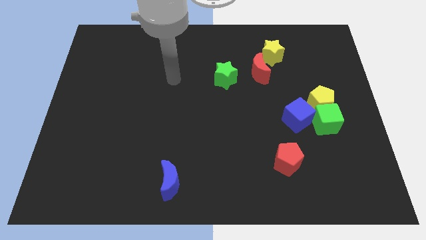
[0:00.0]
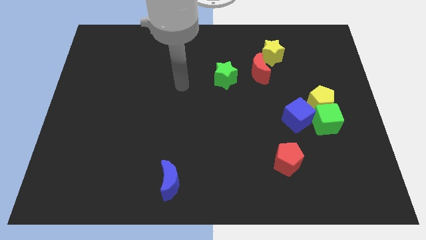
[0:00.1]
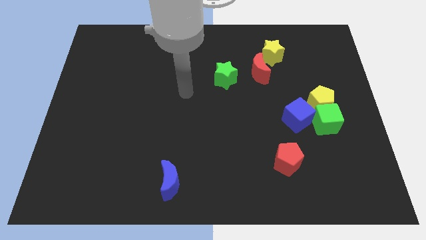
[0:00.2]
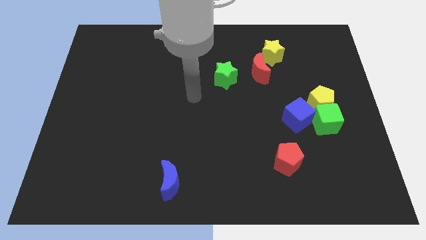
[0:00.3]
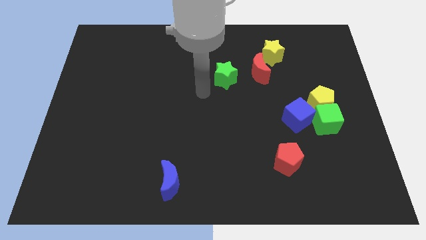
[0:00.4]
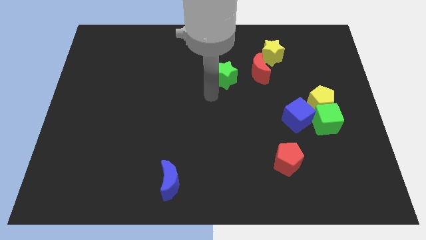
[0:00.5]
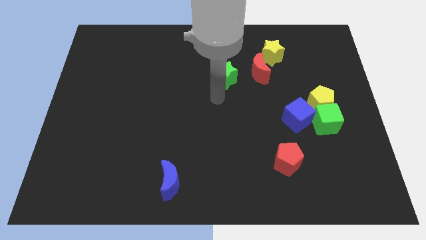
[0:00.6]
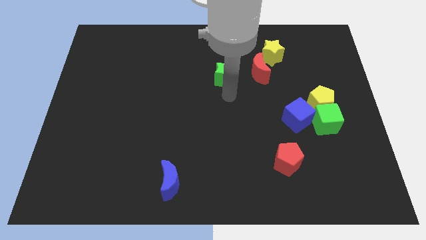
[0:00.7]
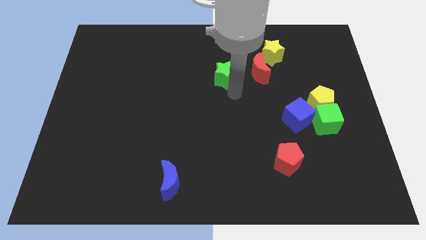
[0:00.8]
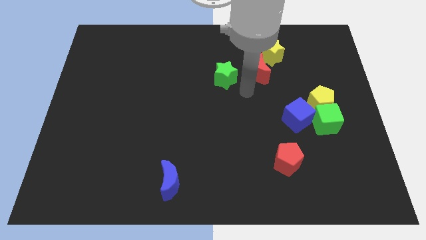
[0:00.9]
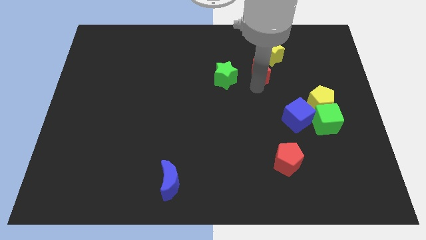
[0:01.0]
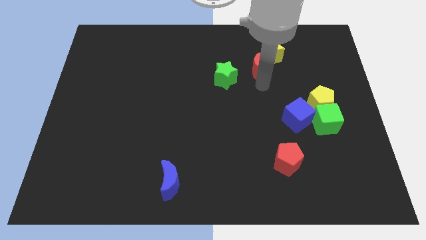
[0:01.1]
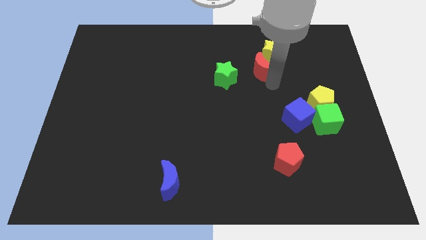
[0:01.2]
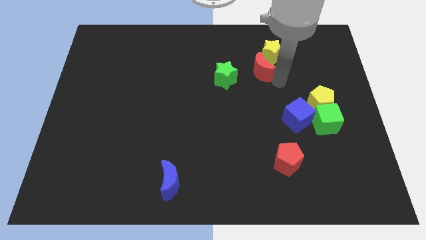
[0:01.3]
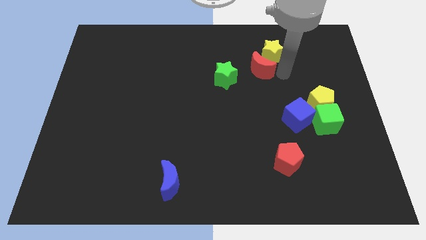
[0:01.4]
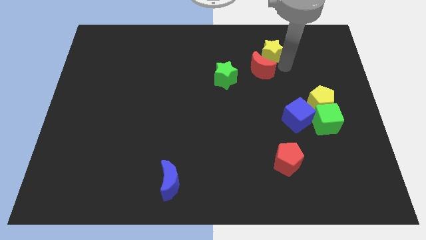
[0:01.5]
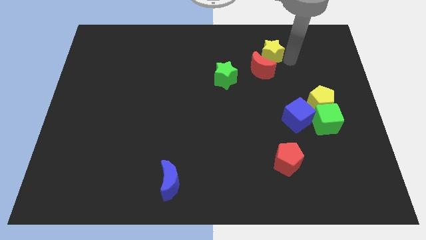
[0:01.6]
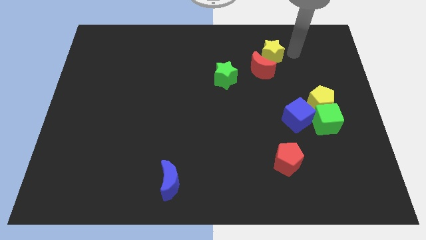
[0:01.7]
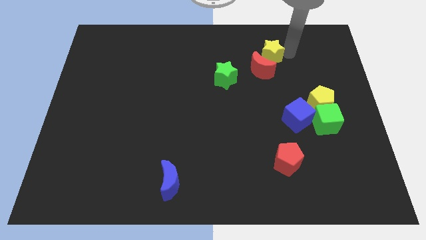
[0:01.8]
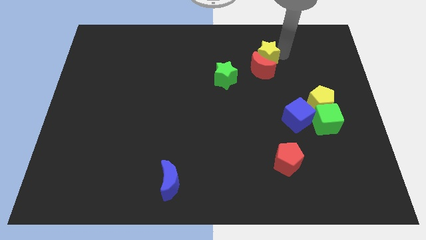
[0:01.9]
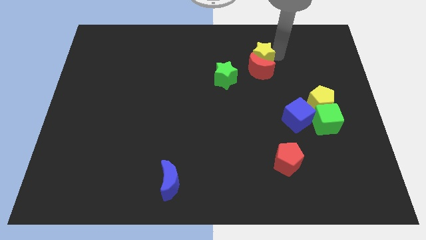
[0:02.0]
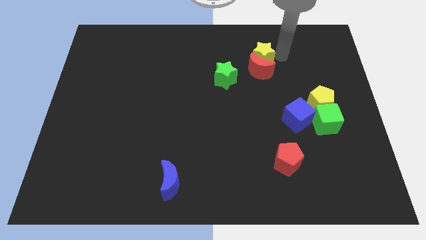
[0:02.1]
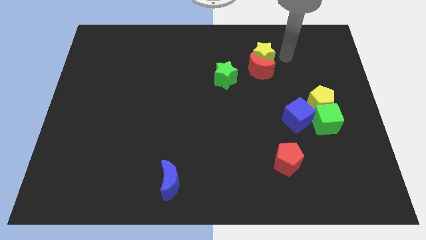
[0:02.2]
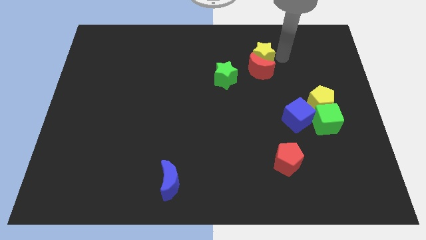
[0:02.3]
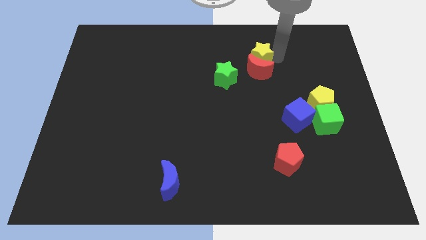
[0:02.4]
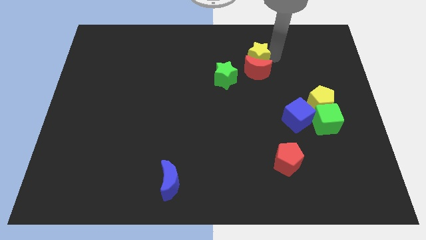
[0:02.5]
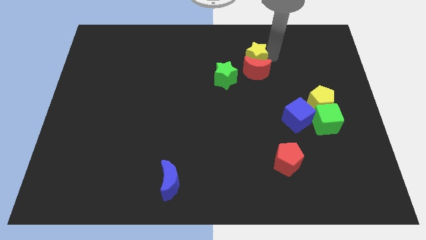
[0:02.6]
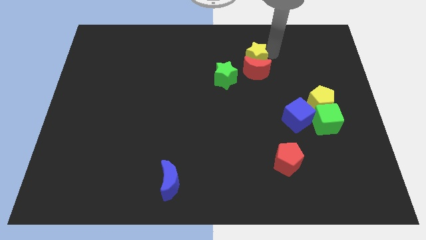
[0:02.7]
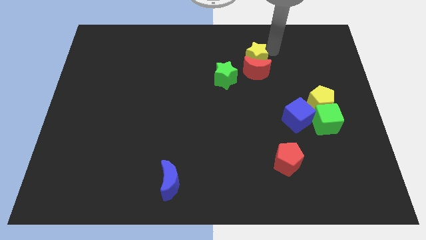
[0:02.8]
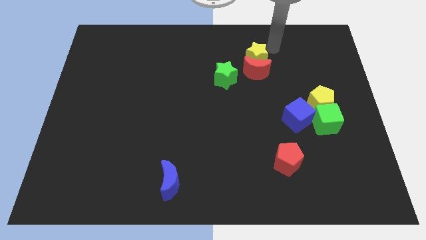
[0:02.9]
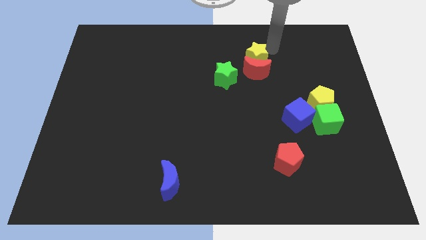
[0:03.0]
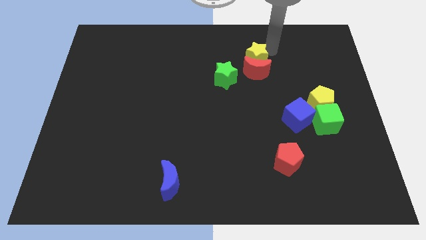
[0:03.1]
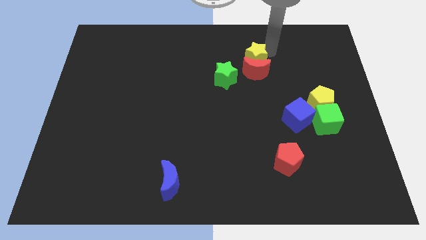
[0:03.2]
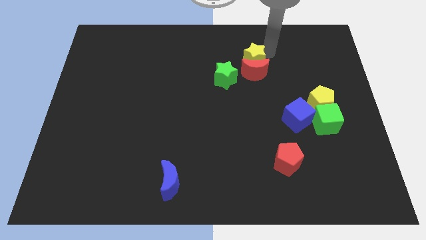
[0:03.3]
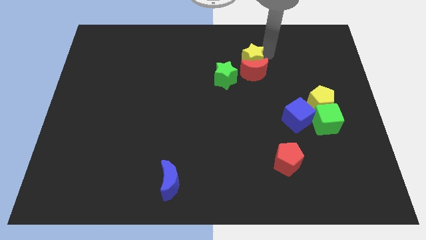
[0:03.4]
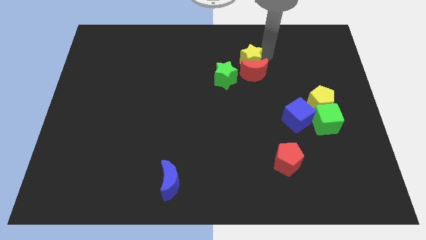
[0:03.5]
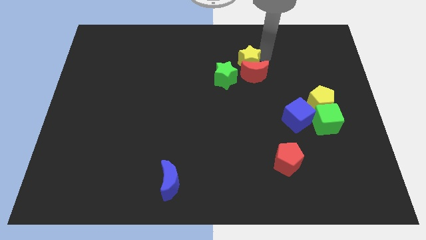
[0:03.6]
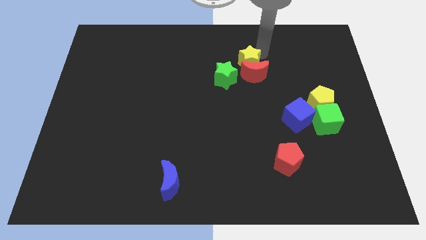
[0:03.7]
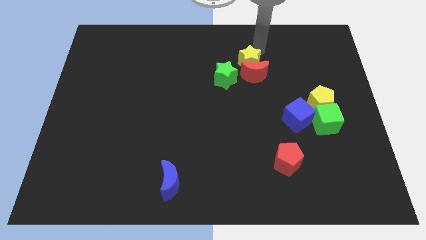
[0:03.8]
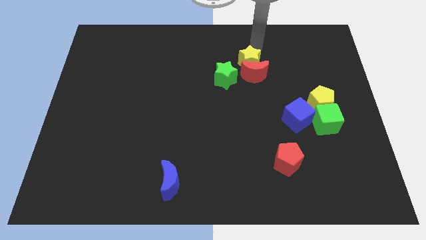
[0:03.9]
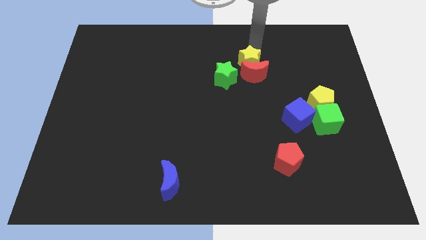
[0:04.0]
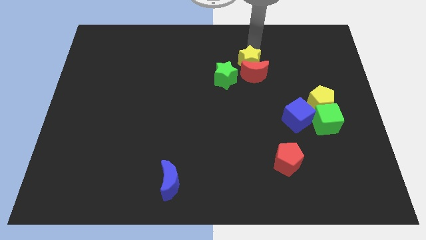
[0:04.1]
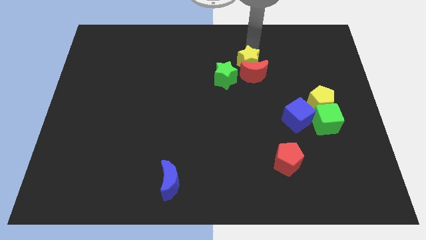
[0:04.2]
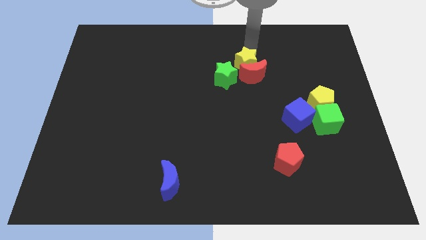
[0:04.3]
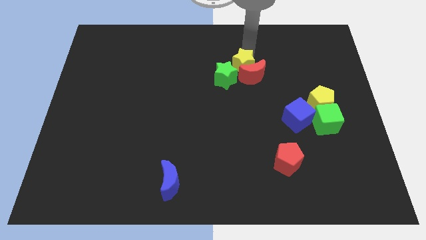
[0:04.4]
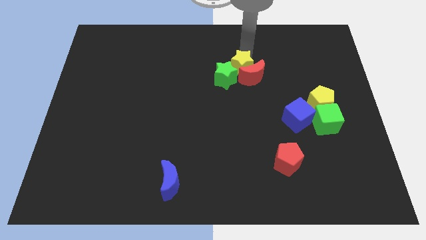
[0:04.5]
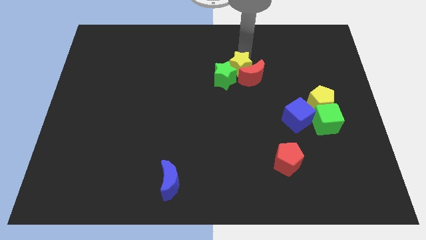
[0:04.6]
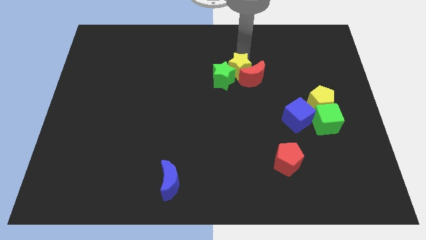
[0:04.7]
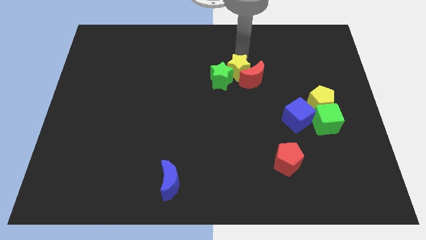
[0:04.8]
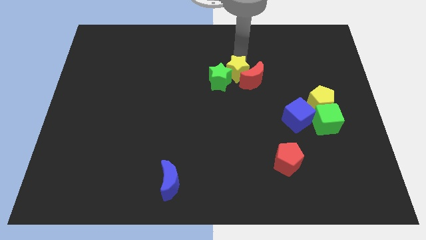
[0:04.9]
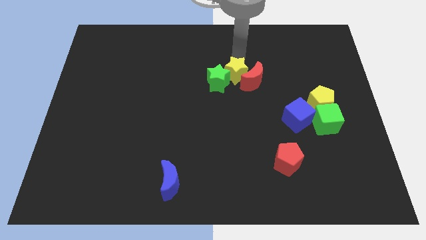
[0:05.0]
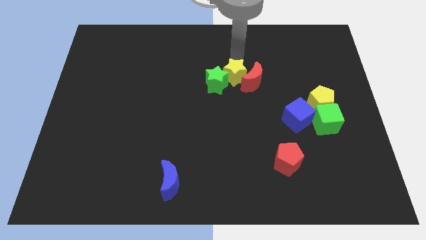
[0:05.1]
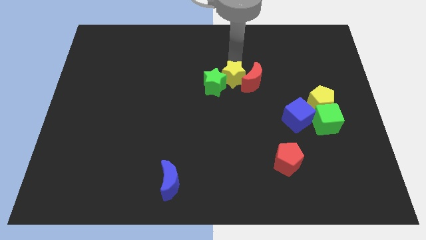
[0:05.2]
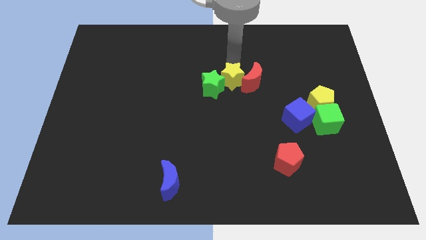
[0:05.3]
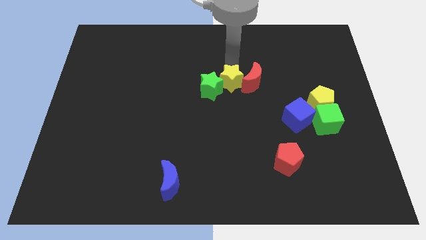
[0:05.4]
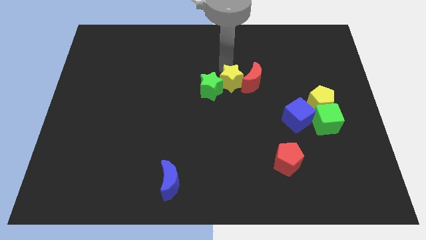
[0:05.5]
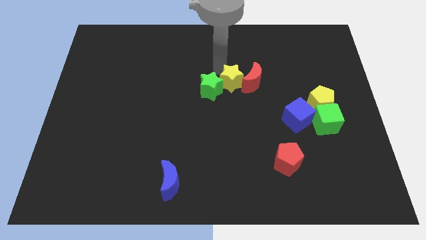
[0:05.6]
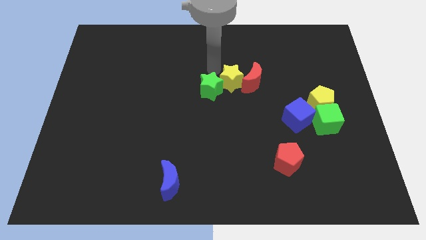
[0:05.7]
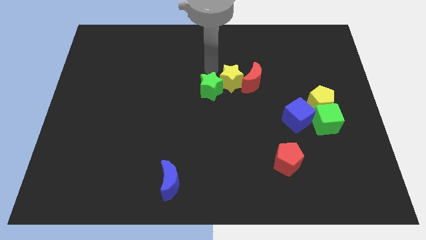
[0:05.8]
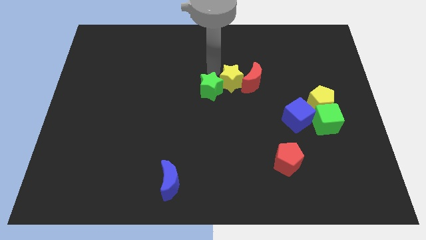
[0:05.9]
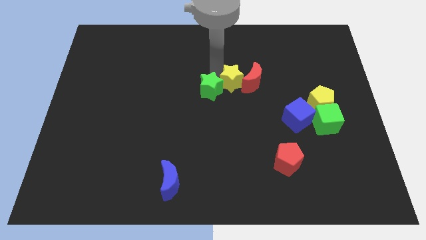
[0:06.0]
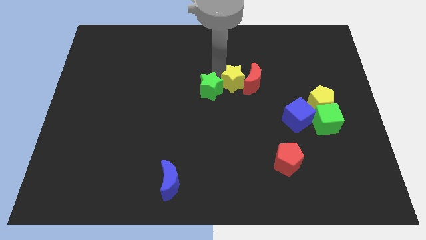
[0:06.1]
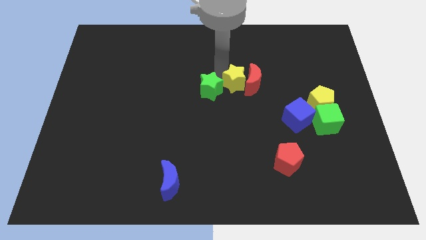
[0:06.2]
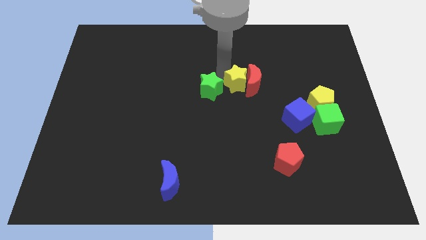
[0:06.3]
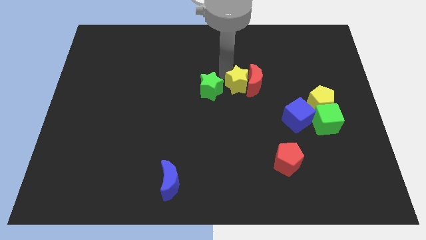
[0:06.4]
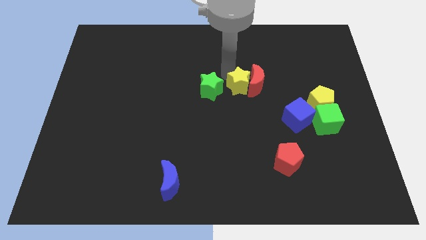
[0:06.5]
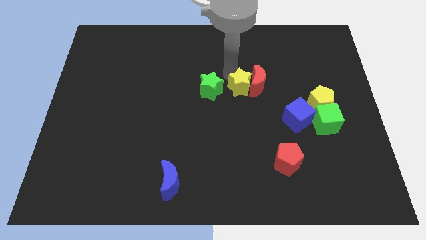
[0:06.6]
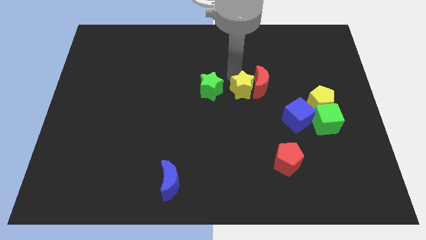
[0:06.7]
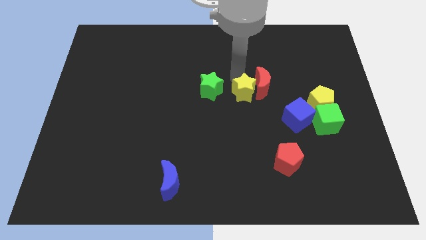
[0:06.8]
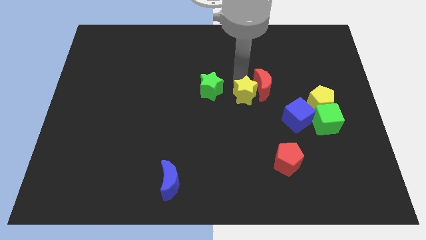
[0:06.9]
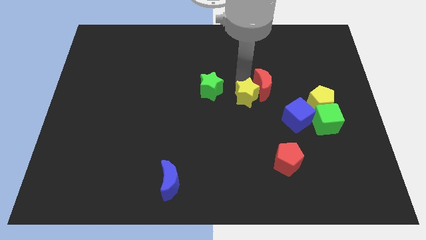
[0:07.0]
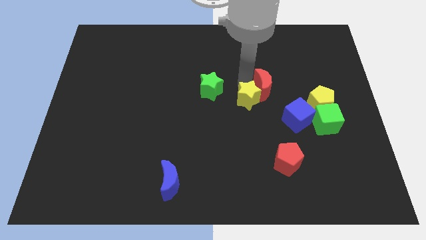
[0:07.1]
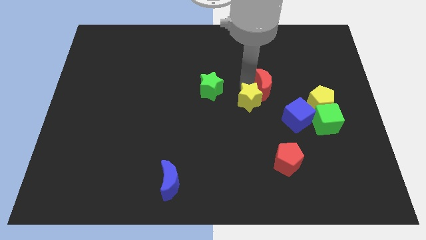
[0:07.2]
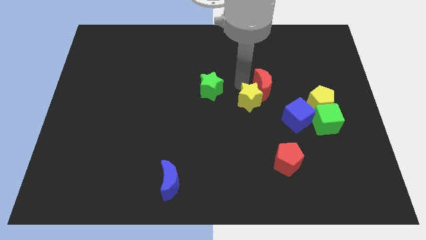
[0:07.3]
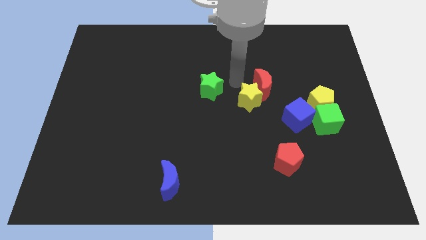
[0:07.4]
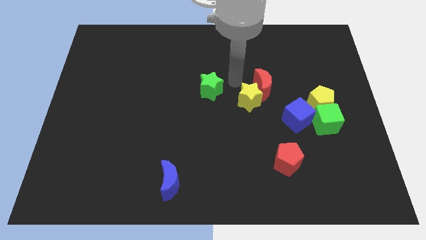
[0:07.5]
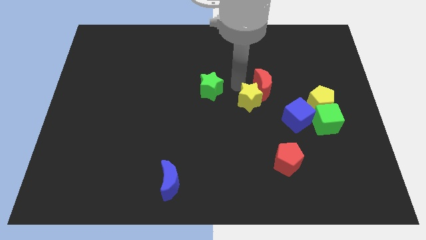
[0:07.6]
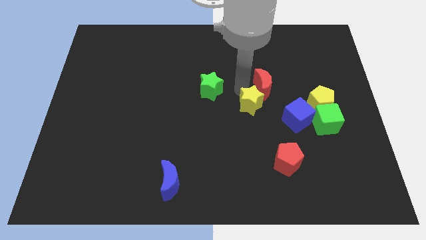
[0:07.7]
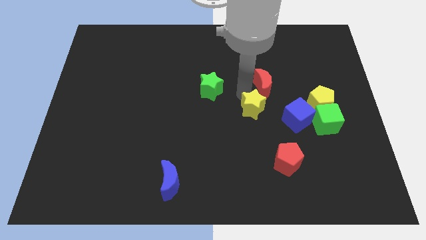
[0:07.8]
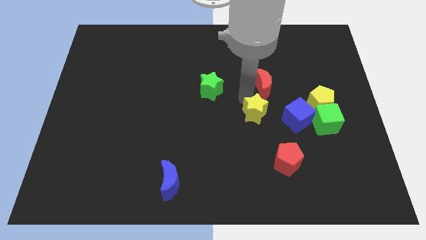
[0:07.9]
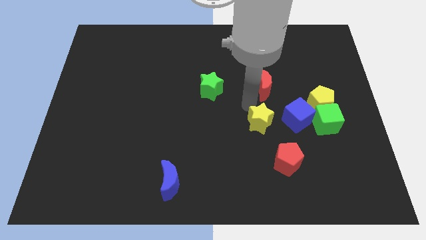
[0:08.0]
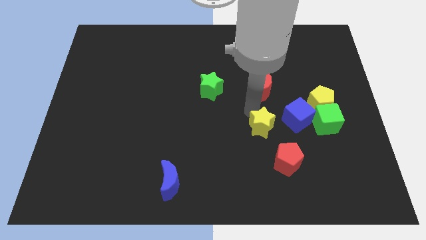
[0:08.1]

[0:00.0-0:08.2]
move the yellow star to the bottom left side of the blue cube
